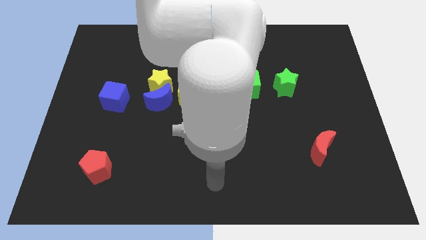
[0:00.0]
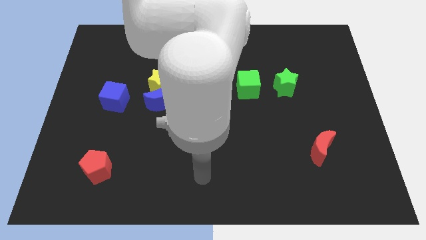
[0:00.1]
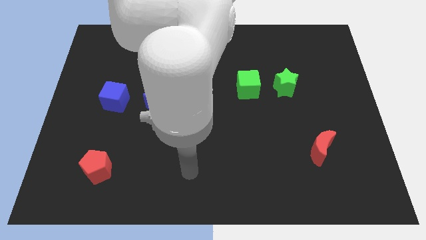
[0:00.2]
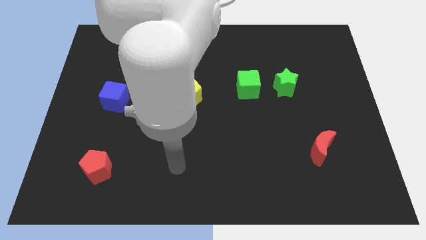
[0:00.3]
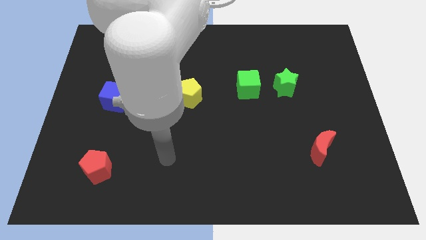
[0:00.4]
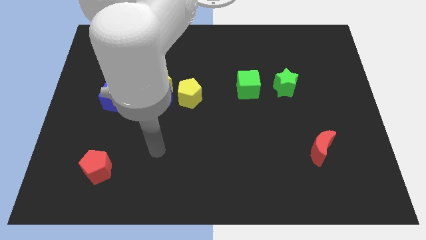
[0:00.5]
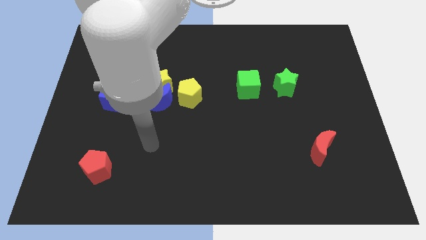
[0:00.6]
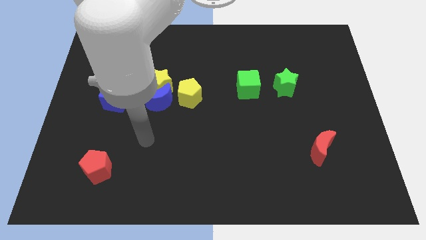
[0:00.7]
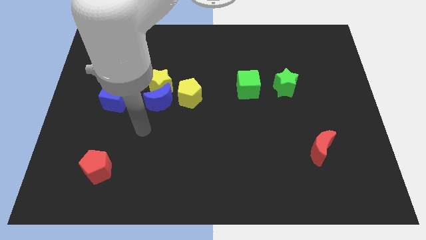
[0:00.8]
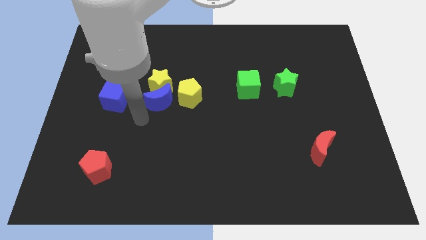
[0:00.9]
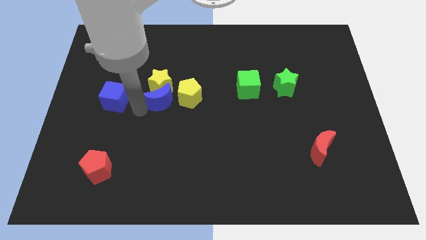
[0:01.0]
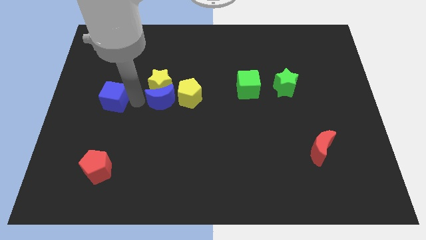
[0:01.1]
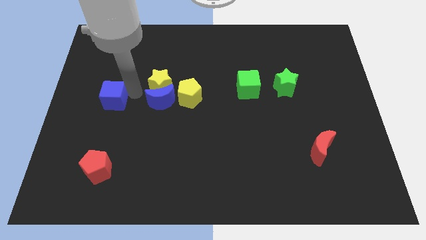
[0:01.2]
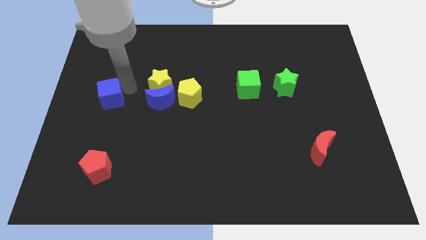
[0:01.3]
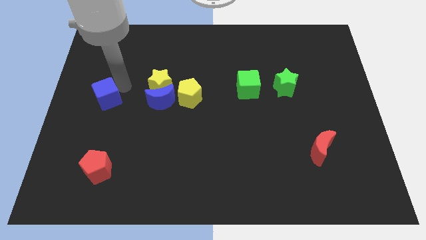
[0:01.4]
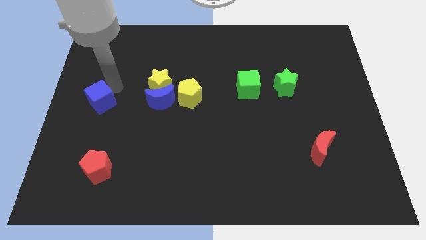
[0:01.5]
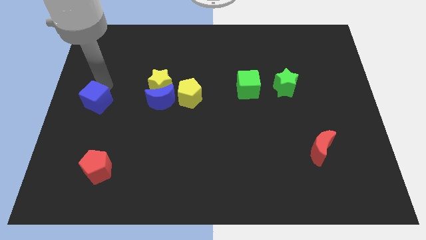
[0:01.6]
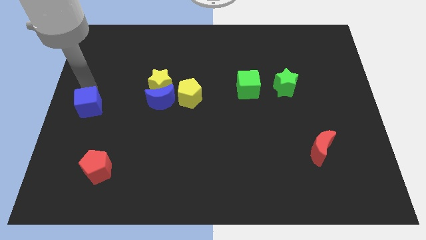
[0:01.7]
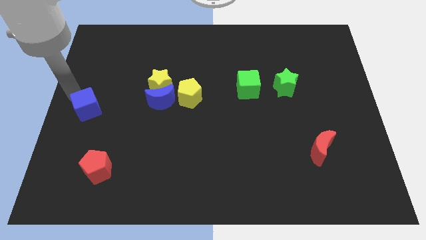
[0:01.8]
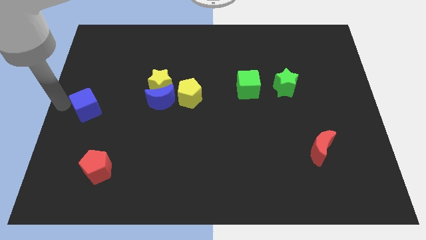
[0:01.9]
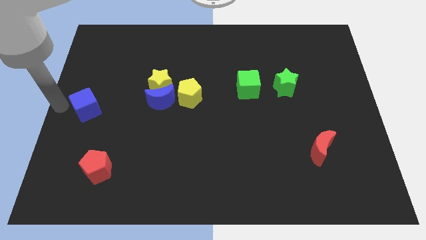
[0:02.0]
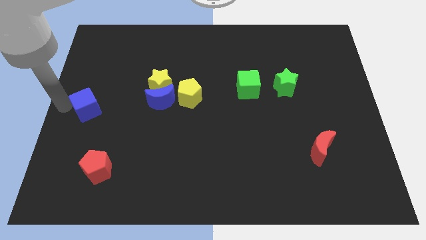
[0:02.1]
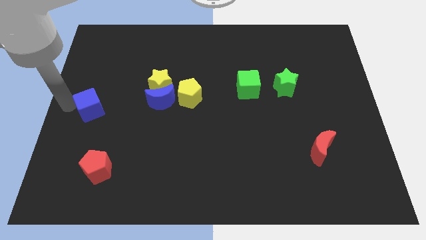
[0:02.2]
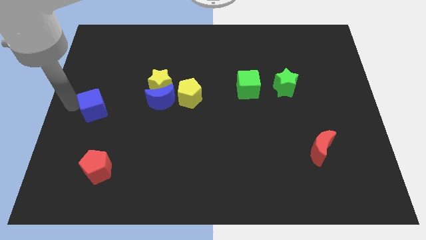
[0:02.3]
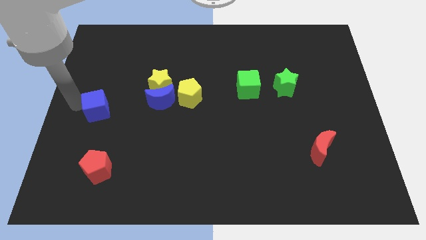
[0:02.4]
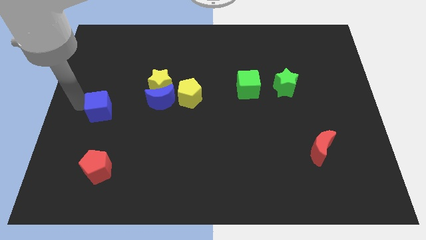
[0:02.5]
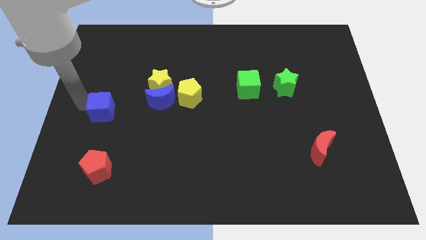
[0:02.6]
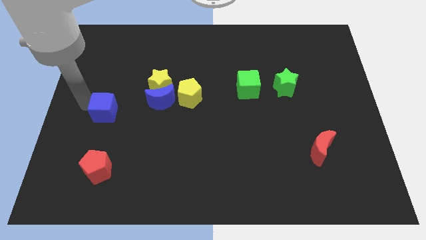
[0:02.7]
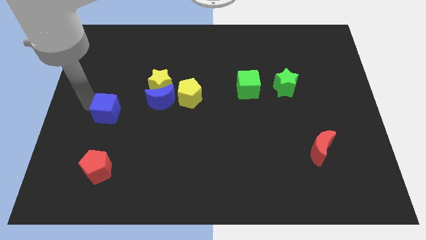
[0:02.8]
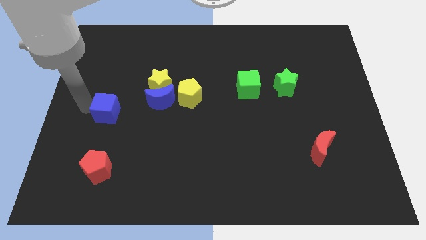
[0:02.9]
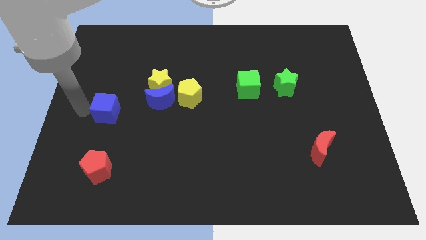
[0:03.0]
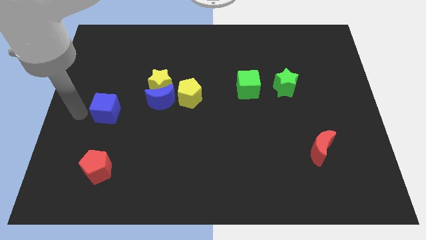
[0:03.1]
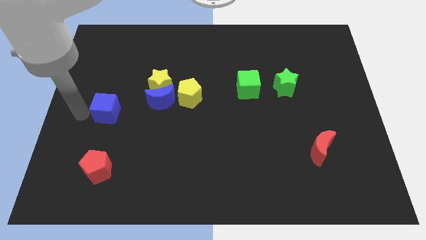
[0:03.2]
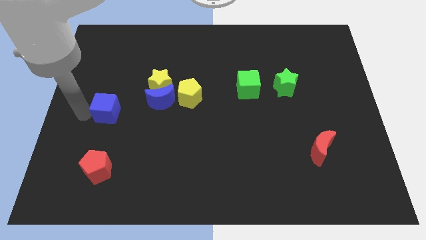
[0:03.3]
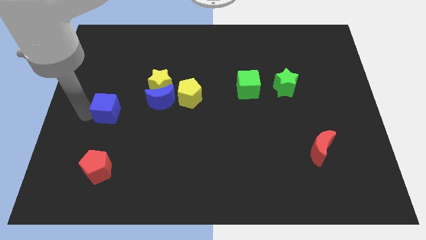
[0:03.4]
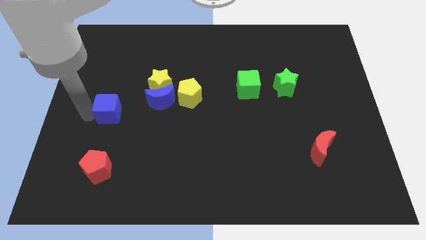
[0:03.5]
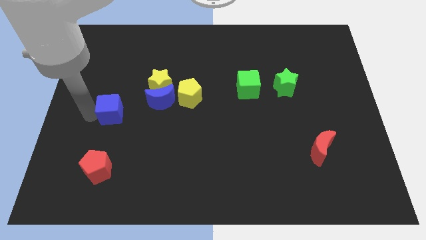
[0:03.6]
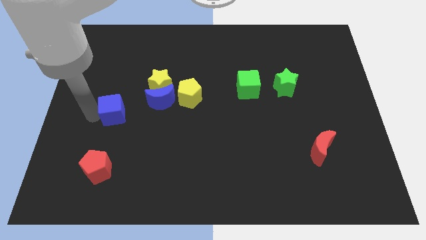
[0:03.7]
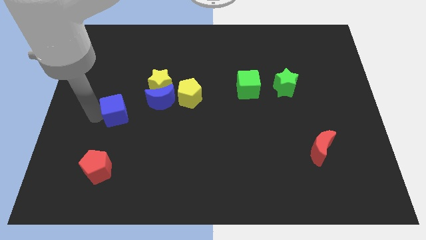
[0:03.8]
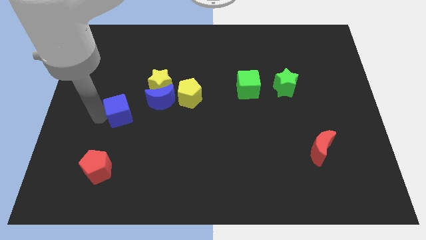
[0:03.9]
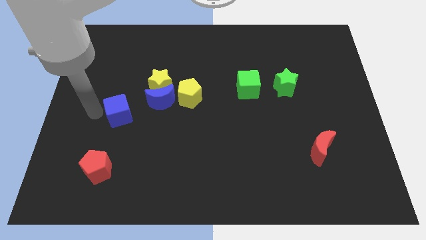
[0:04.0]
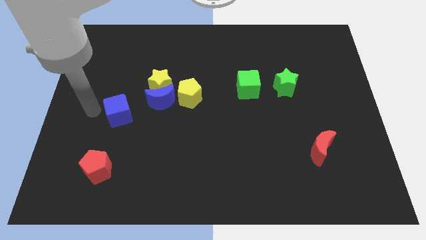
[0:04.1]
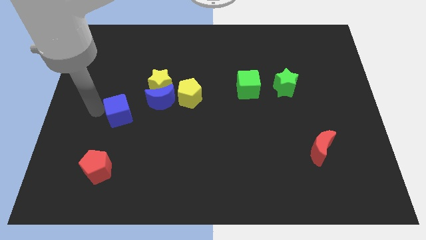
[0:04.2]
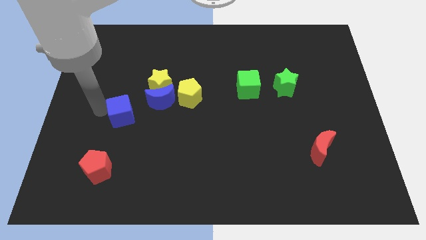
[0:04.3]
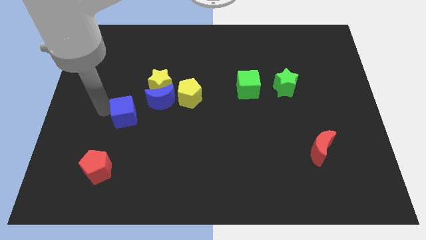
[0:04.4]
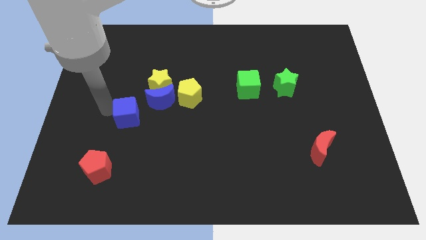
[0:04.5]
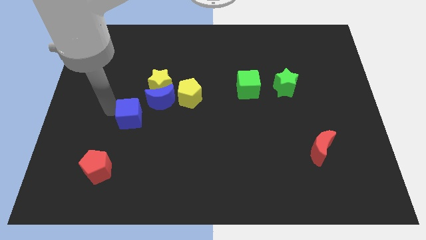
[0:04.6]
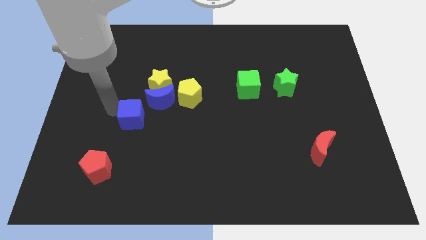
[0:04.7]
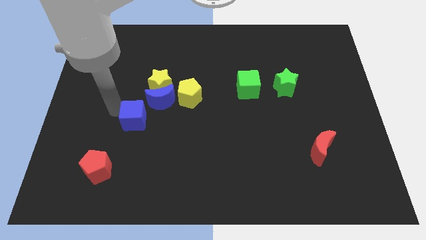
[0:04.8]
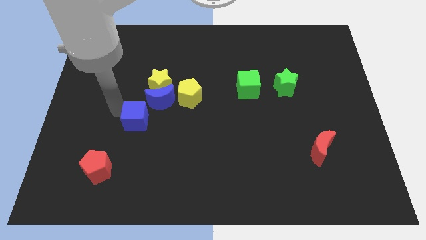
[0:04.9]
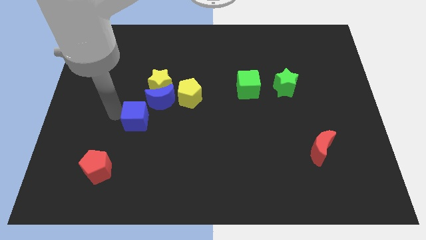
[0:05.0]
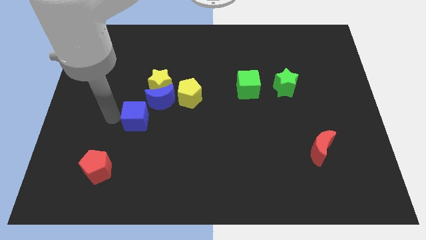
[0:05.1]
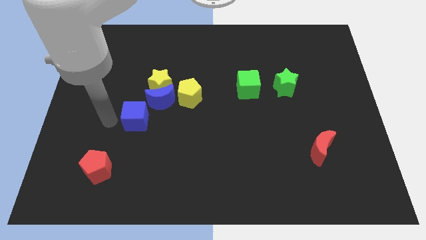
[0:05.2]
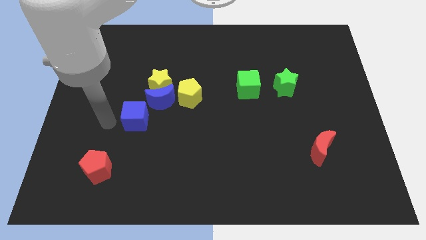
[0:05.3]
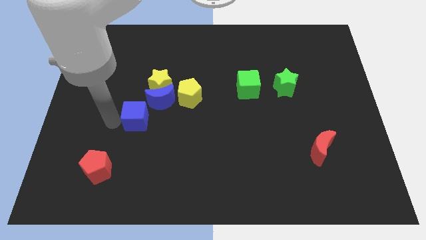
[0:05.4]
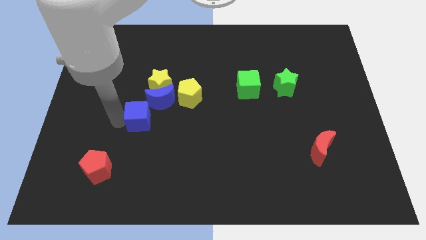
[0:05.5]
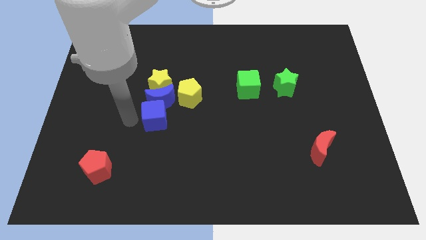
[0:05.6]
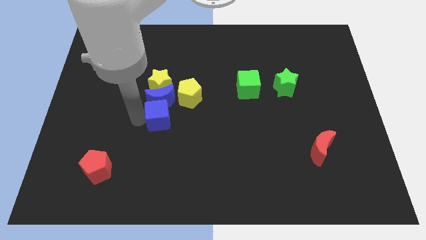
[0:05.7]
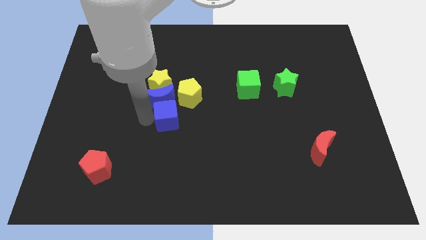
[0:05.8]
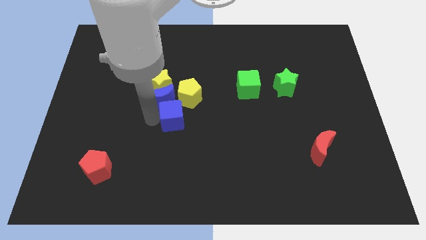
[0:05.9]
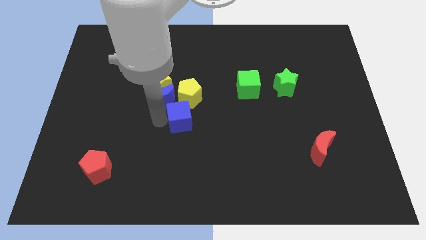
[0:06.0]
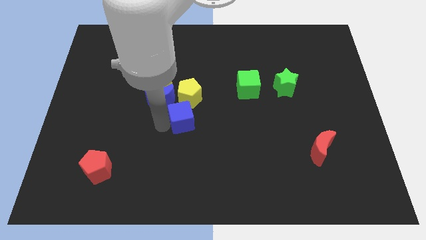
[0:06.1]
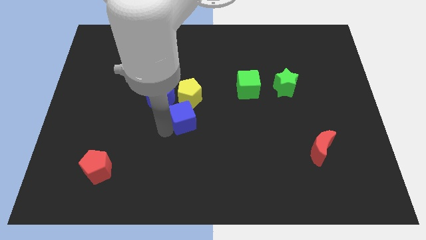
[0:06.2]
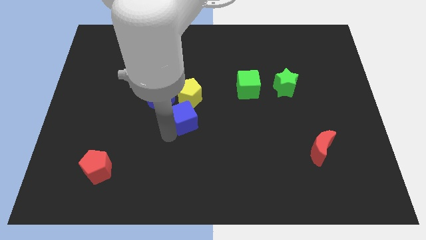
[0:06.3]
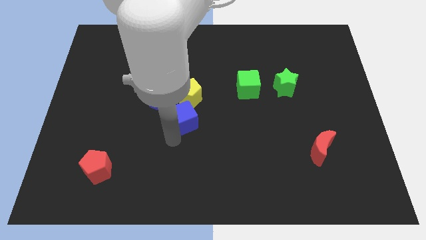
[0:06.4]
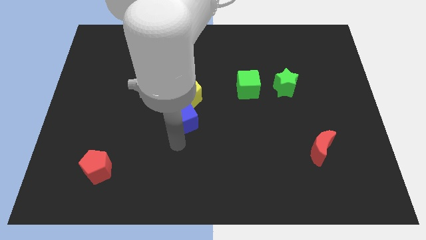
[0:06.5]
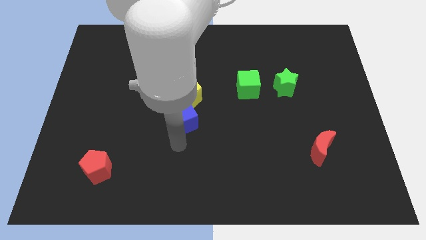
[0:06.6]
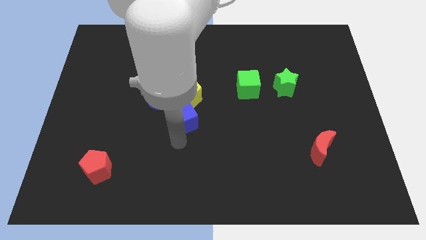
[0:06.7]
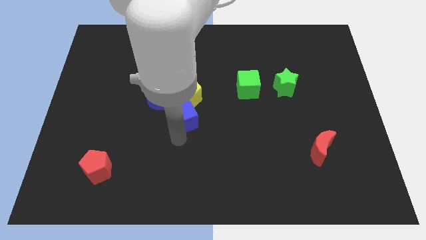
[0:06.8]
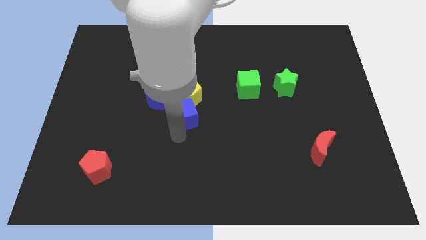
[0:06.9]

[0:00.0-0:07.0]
push the blue cube close to the yellow pentagon

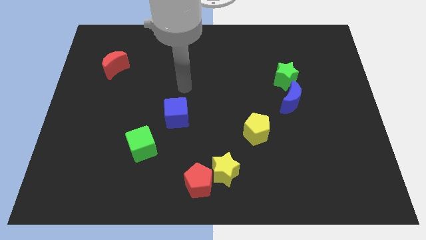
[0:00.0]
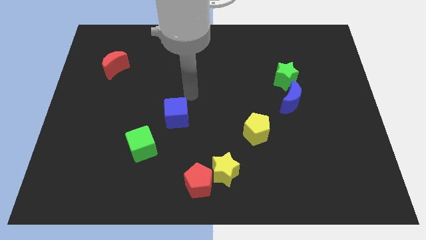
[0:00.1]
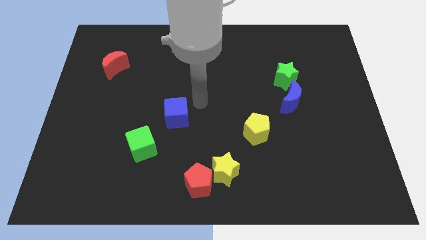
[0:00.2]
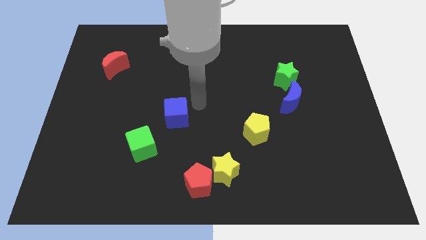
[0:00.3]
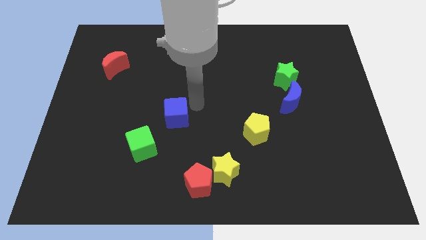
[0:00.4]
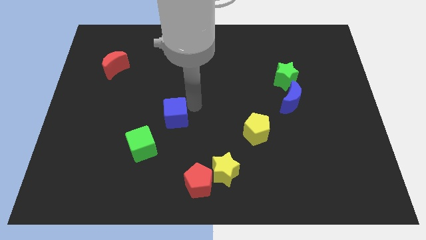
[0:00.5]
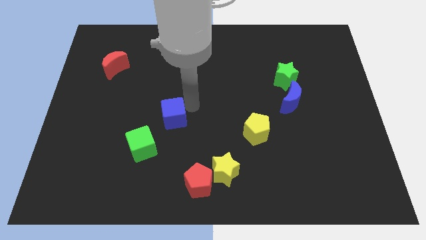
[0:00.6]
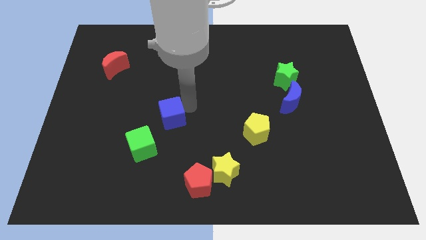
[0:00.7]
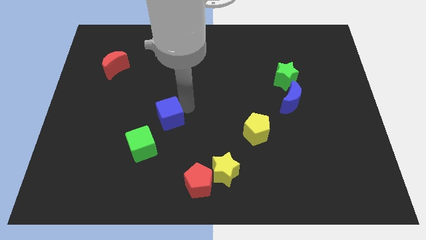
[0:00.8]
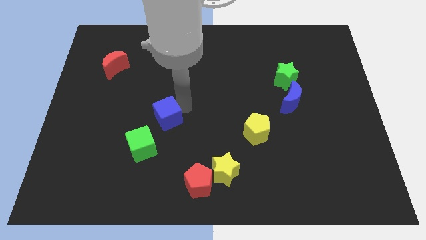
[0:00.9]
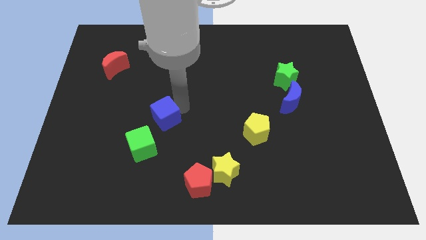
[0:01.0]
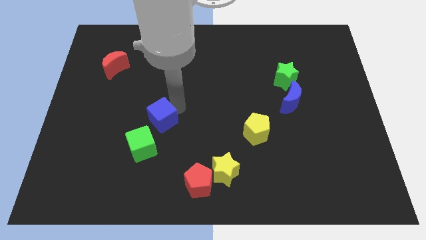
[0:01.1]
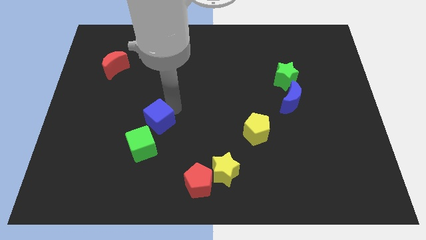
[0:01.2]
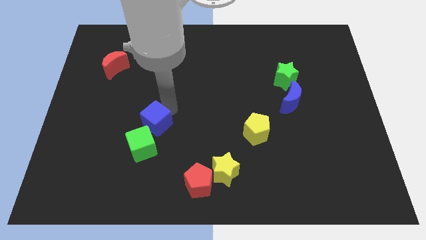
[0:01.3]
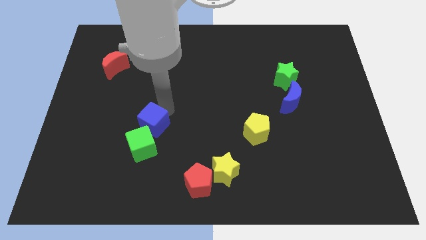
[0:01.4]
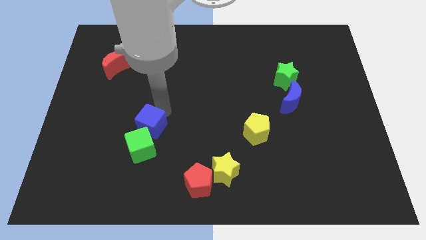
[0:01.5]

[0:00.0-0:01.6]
slide the blue cube to the green cube
